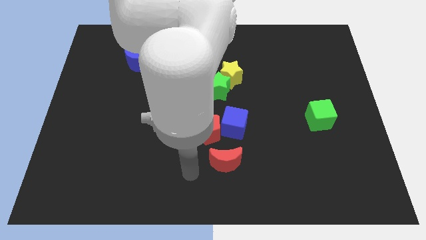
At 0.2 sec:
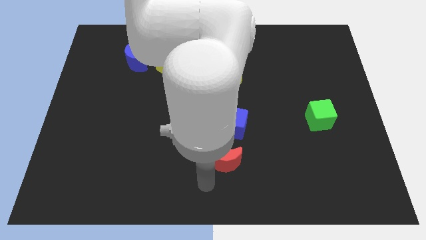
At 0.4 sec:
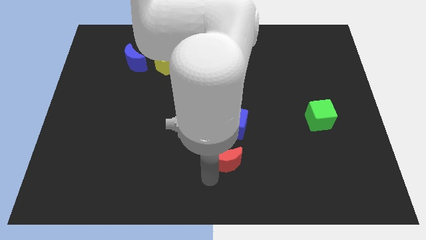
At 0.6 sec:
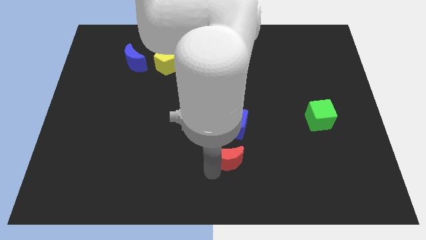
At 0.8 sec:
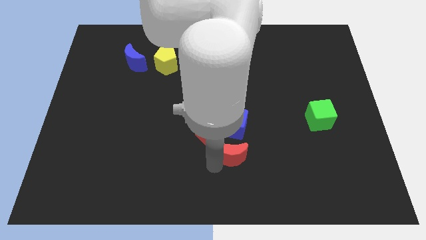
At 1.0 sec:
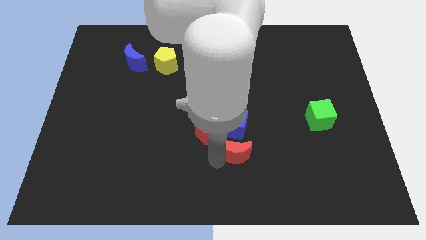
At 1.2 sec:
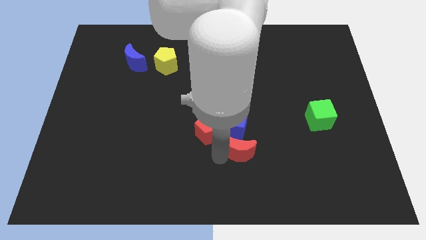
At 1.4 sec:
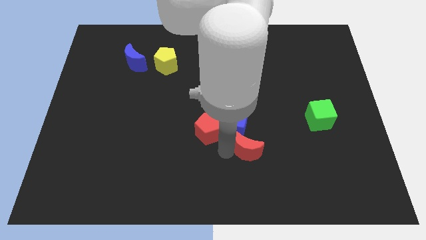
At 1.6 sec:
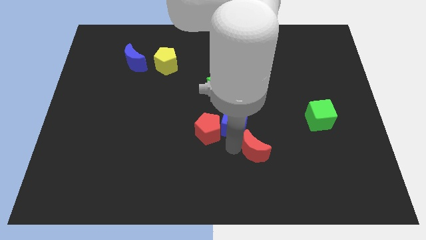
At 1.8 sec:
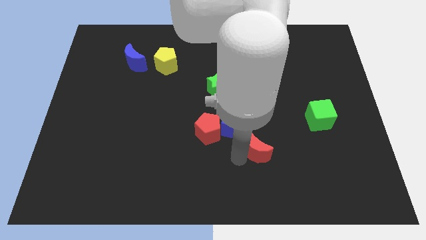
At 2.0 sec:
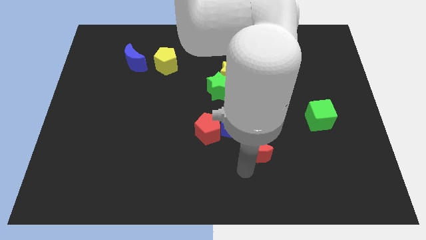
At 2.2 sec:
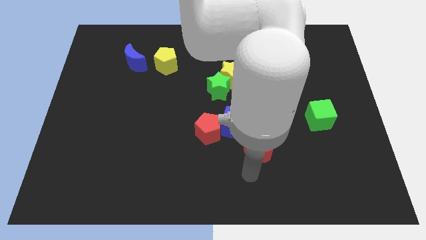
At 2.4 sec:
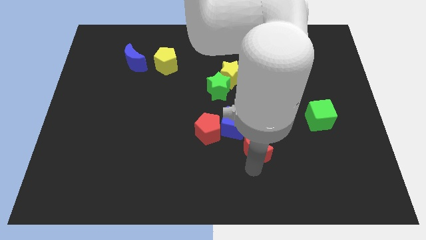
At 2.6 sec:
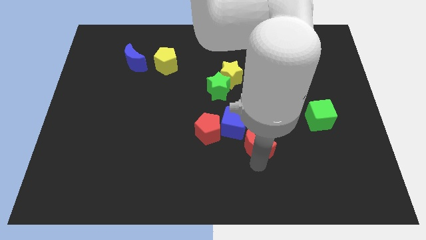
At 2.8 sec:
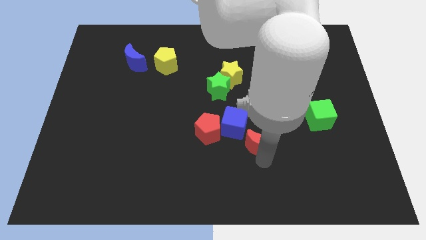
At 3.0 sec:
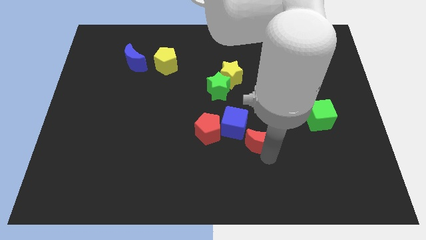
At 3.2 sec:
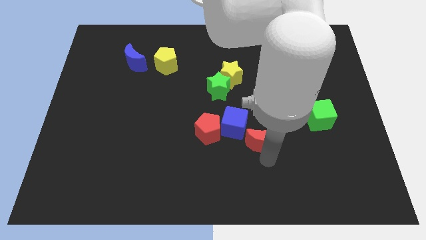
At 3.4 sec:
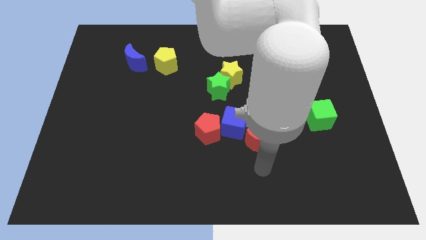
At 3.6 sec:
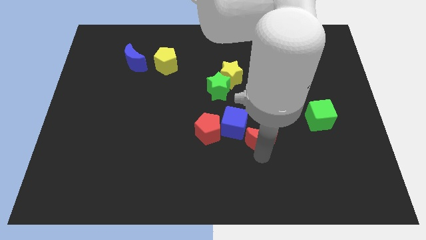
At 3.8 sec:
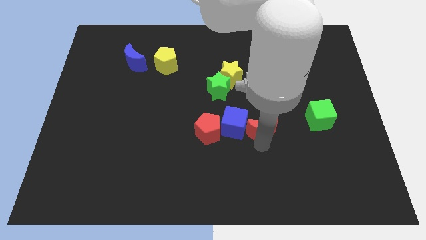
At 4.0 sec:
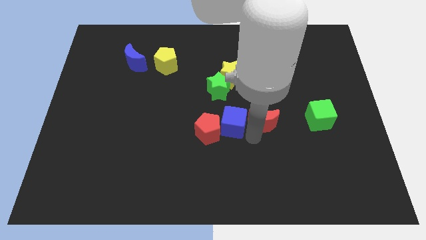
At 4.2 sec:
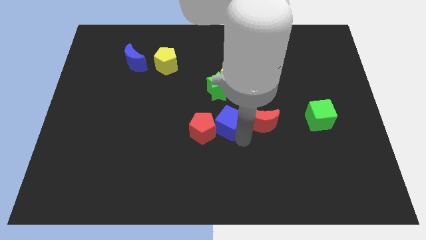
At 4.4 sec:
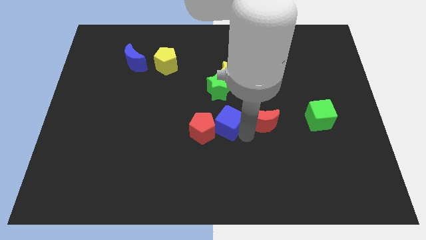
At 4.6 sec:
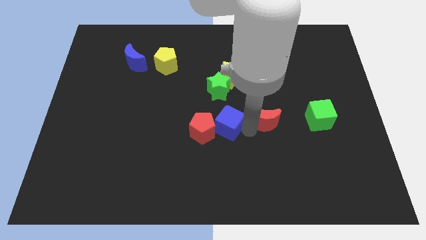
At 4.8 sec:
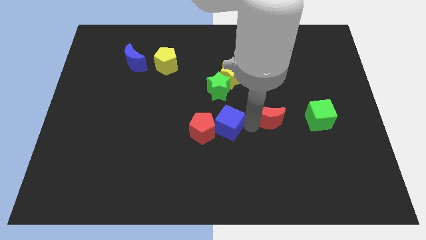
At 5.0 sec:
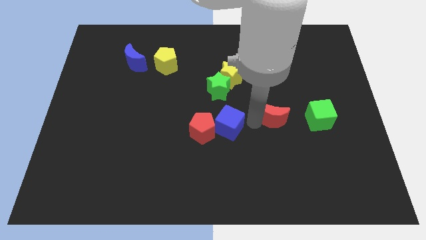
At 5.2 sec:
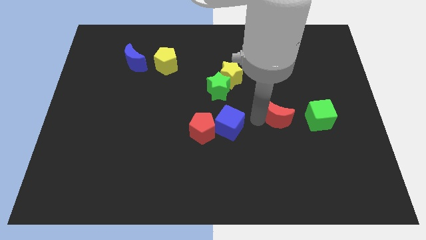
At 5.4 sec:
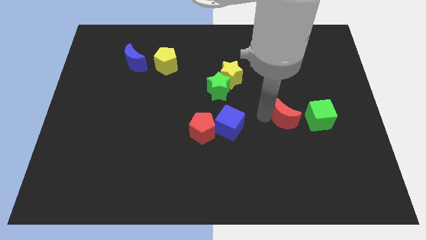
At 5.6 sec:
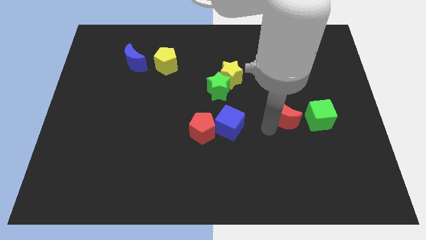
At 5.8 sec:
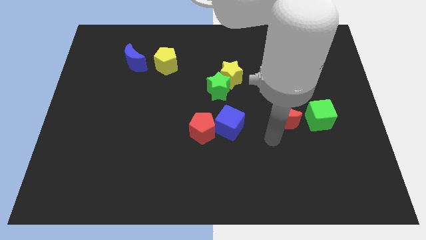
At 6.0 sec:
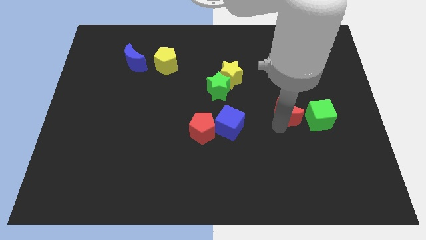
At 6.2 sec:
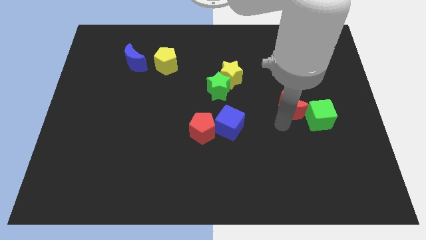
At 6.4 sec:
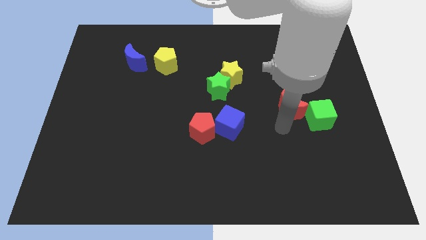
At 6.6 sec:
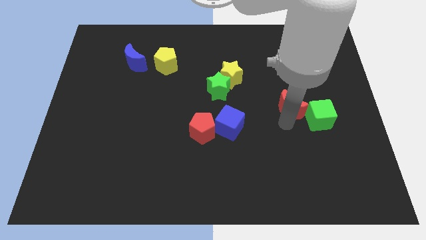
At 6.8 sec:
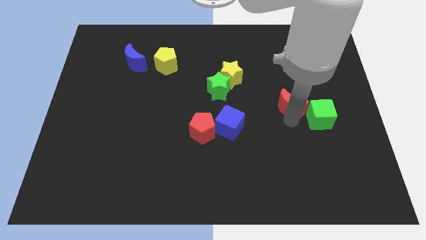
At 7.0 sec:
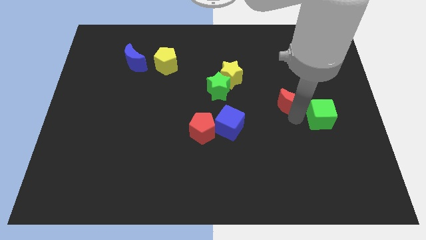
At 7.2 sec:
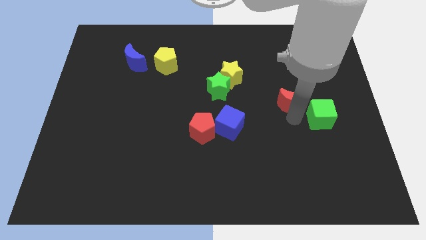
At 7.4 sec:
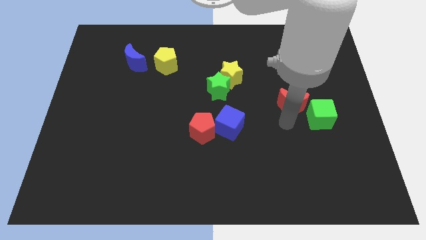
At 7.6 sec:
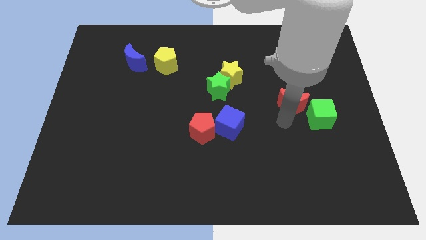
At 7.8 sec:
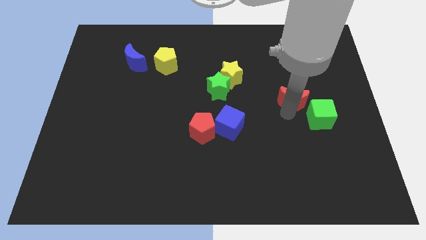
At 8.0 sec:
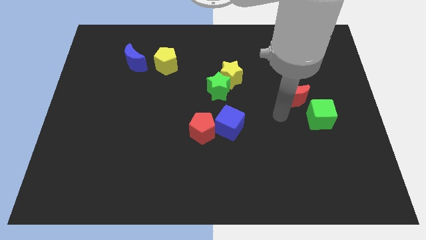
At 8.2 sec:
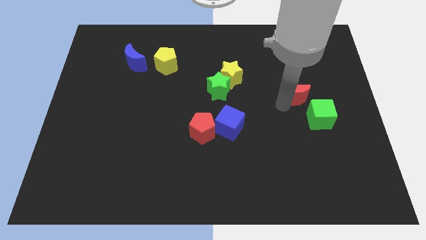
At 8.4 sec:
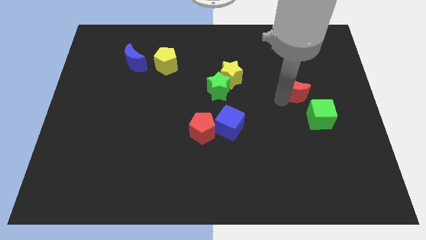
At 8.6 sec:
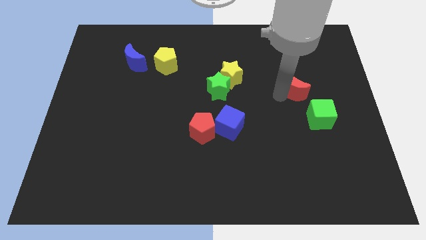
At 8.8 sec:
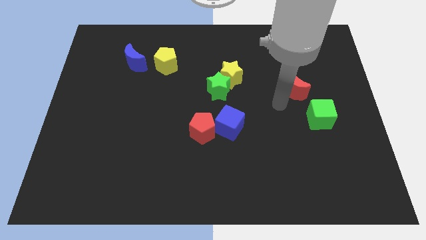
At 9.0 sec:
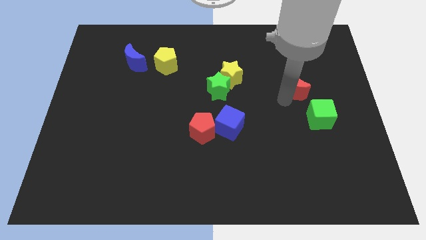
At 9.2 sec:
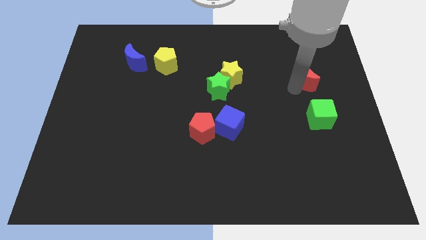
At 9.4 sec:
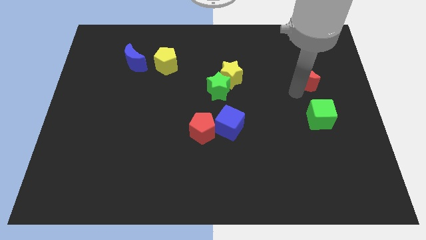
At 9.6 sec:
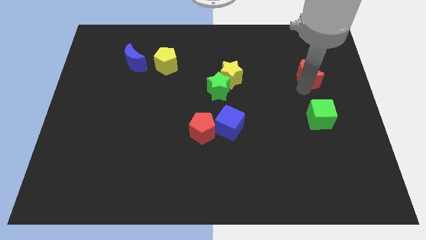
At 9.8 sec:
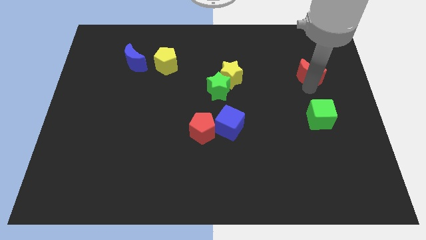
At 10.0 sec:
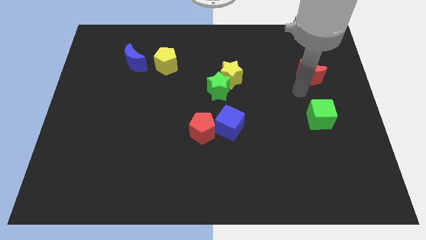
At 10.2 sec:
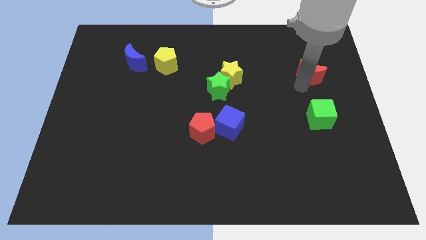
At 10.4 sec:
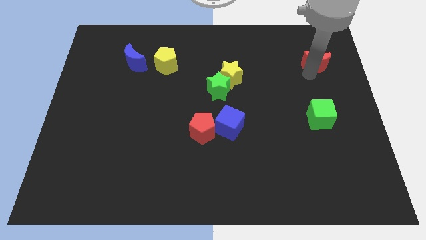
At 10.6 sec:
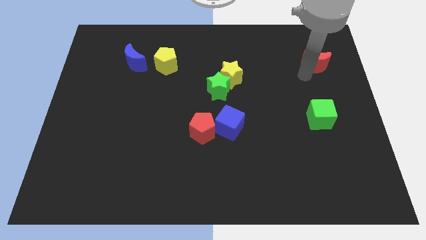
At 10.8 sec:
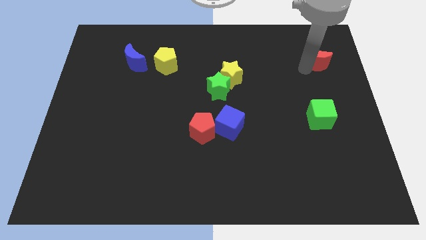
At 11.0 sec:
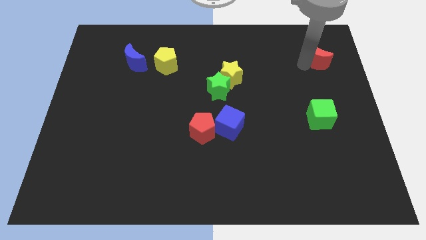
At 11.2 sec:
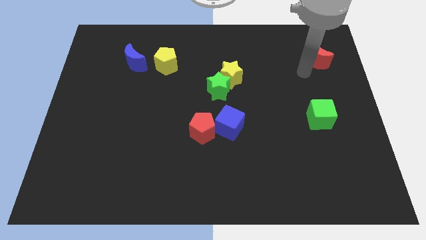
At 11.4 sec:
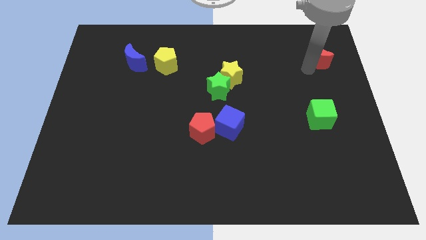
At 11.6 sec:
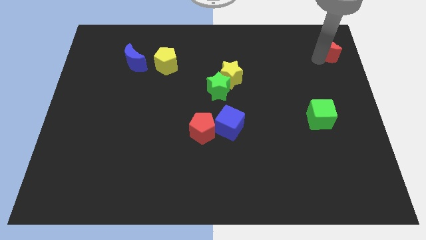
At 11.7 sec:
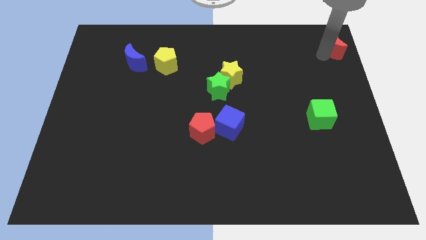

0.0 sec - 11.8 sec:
slide the red moon to the top right corner
